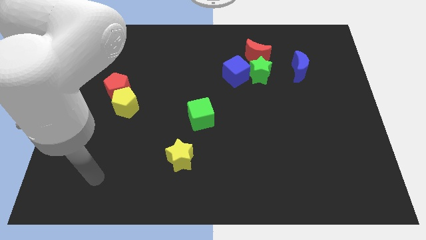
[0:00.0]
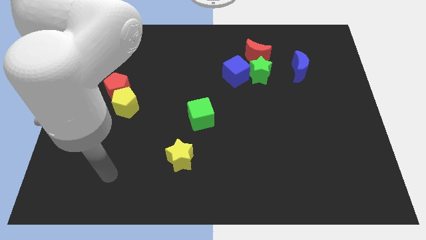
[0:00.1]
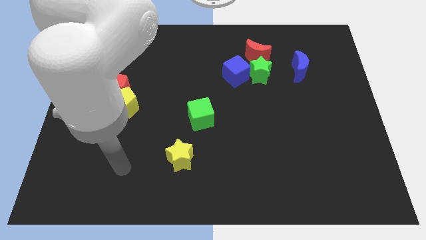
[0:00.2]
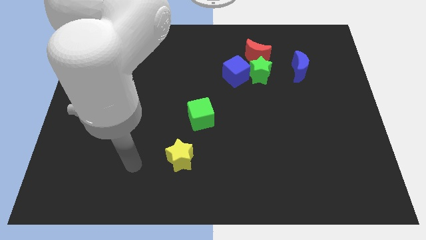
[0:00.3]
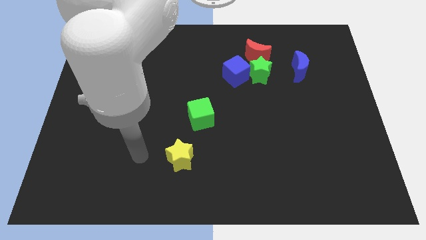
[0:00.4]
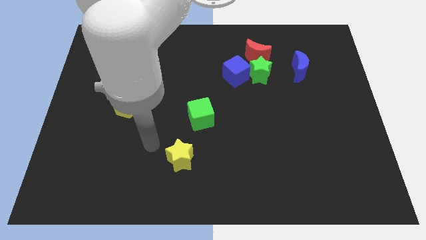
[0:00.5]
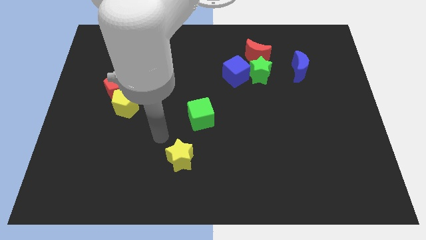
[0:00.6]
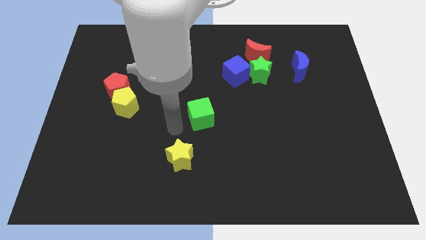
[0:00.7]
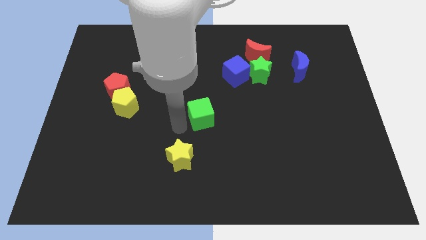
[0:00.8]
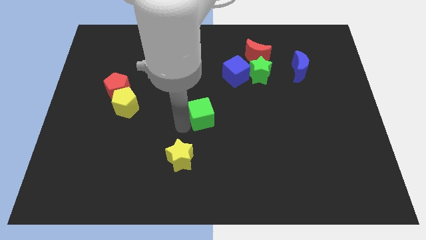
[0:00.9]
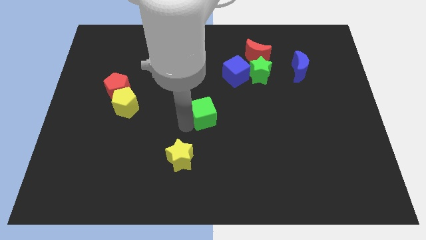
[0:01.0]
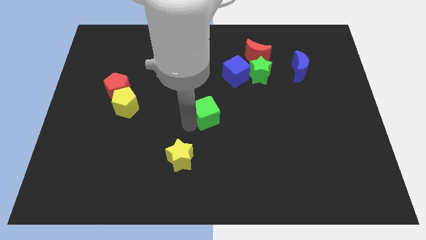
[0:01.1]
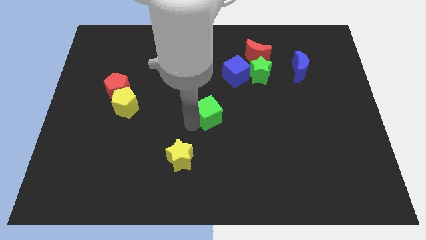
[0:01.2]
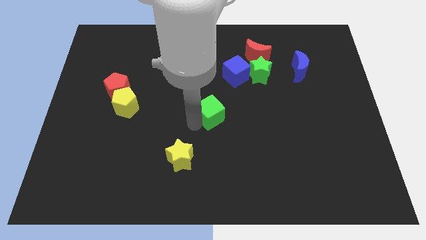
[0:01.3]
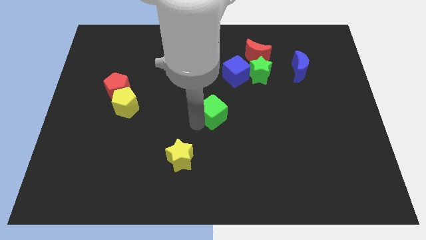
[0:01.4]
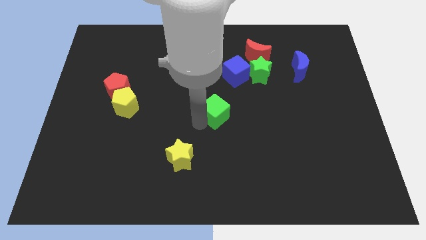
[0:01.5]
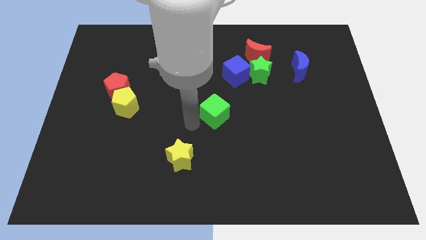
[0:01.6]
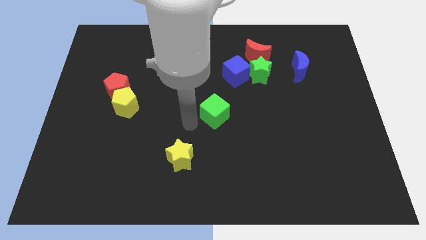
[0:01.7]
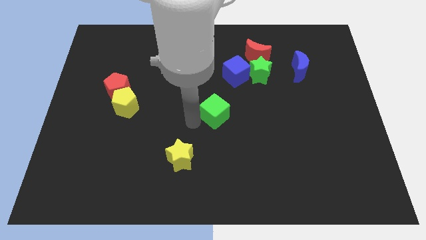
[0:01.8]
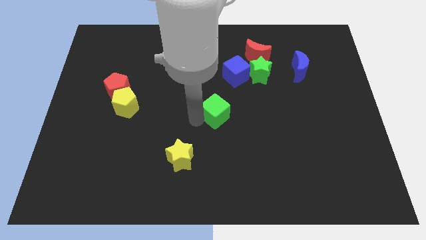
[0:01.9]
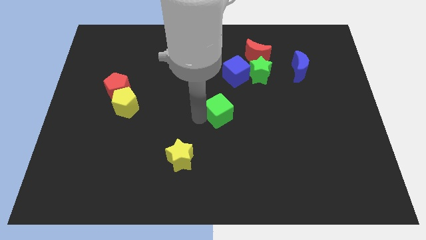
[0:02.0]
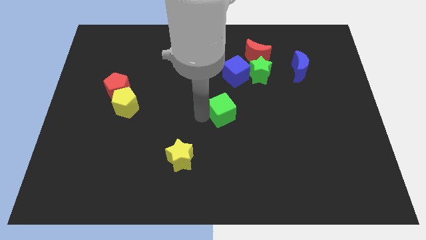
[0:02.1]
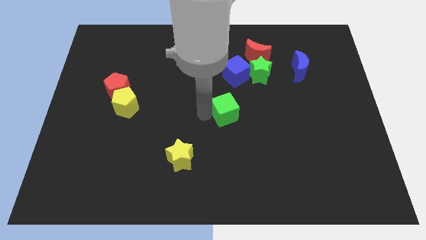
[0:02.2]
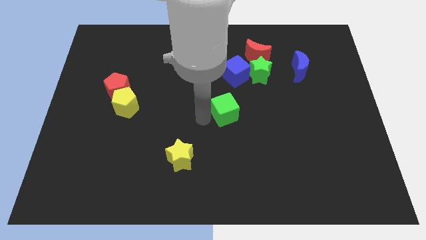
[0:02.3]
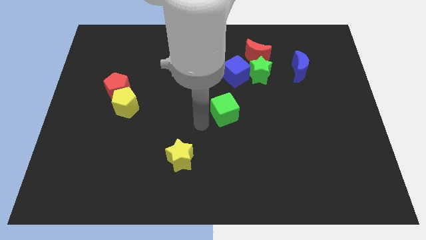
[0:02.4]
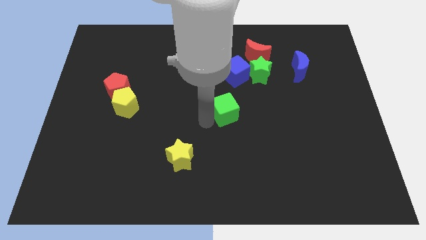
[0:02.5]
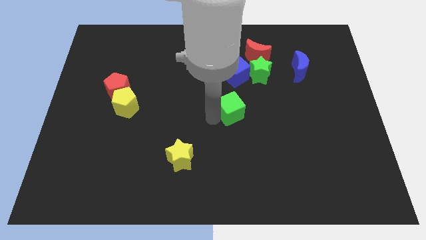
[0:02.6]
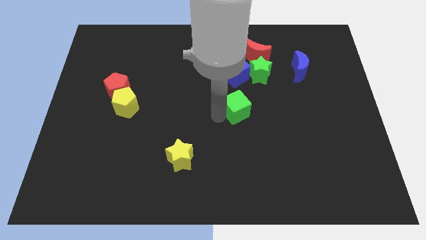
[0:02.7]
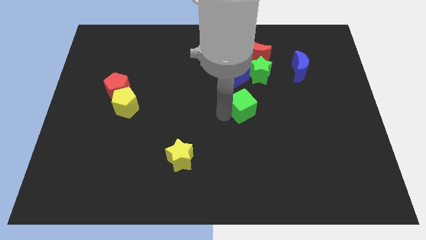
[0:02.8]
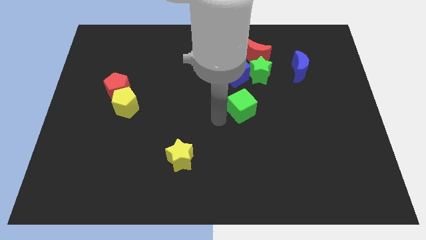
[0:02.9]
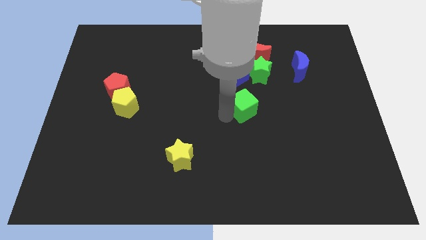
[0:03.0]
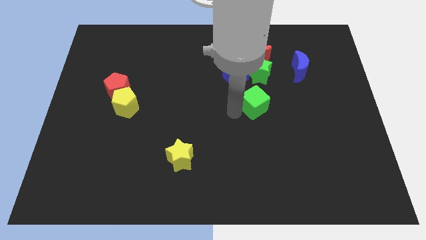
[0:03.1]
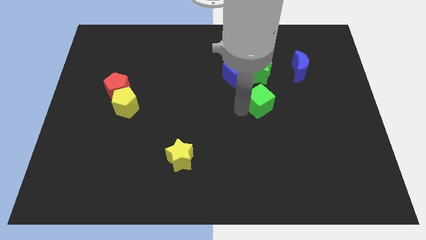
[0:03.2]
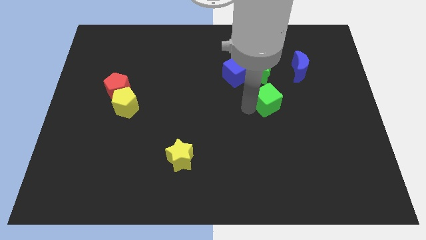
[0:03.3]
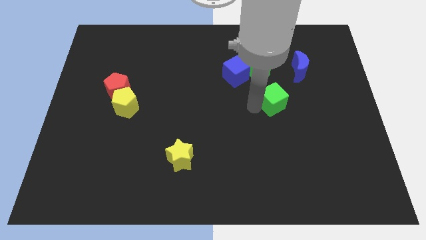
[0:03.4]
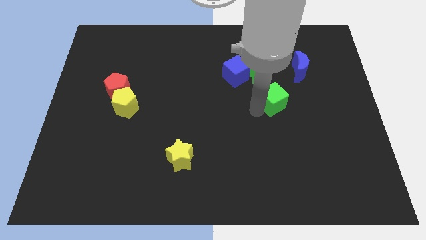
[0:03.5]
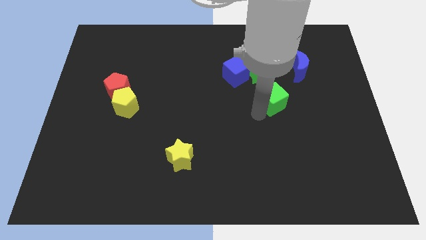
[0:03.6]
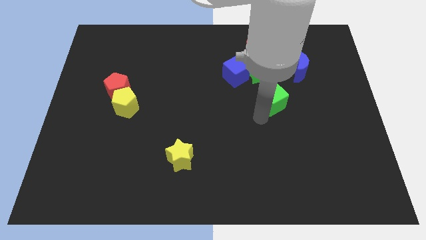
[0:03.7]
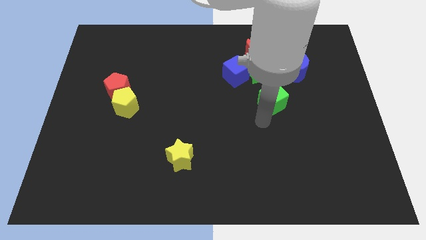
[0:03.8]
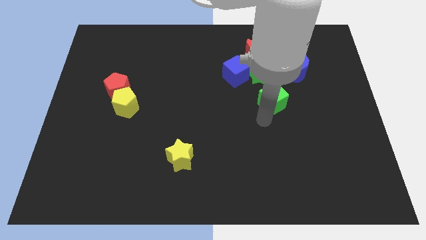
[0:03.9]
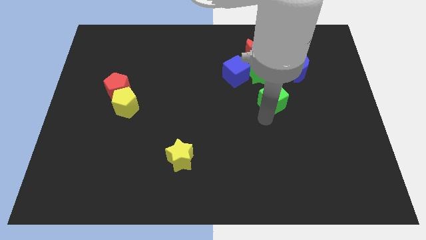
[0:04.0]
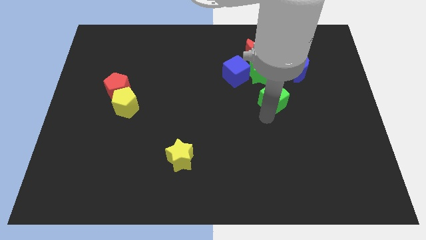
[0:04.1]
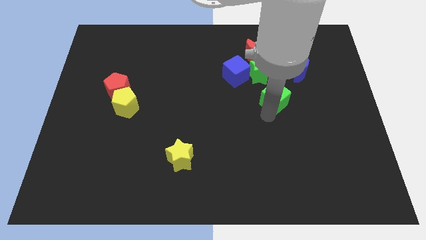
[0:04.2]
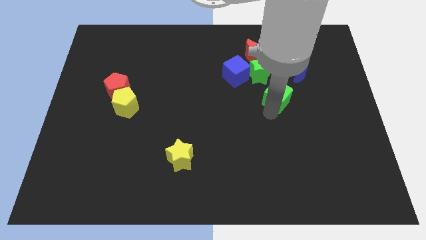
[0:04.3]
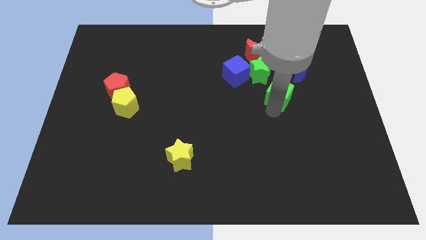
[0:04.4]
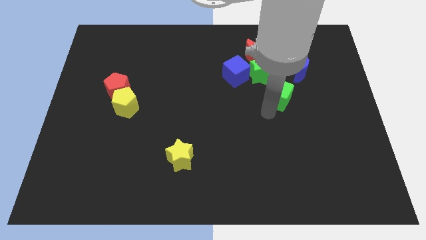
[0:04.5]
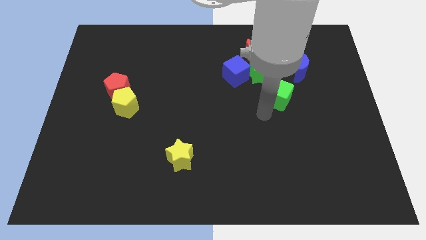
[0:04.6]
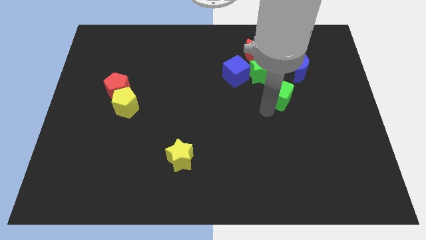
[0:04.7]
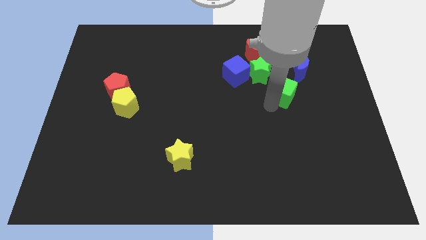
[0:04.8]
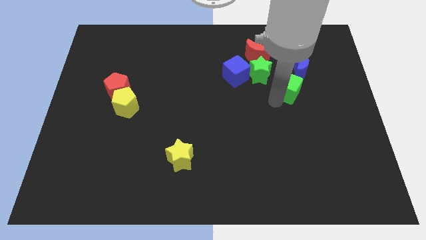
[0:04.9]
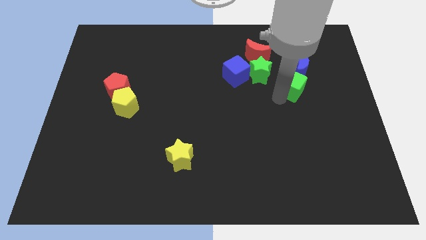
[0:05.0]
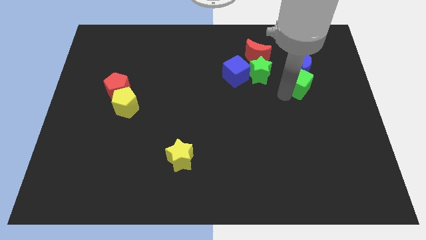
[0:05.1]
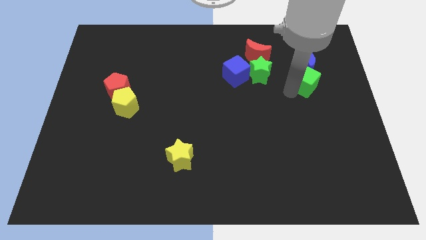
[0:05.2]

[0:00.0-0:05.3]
put the green cube towards the blue moon

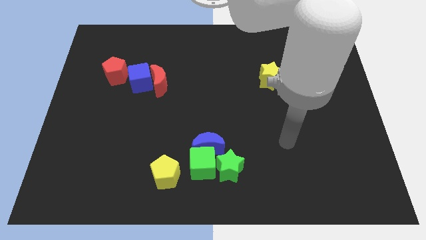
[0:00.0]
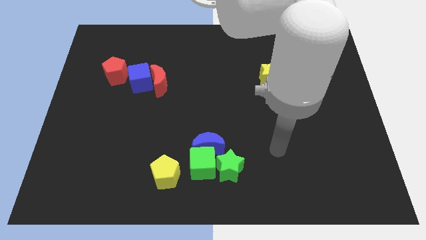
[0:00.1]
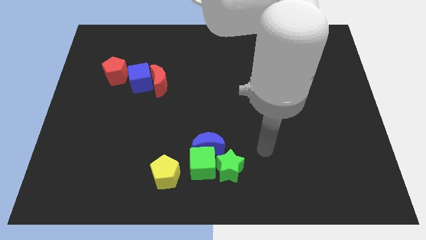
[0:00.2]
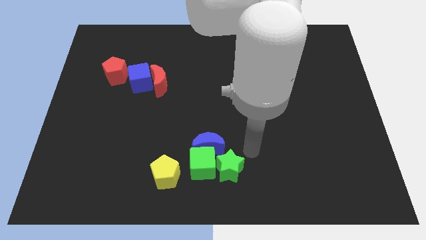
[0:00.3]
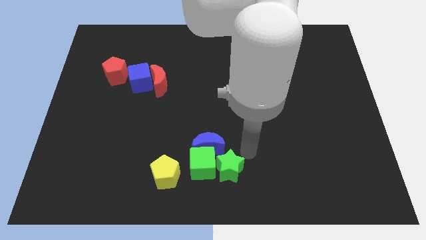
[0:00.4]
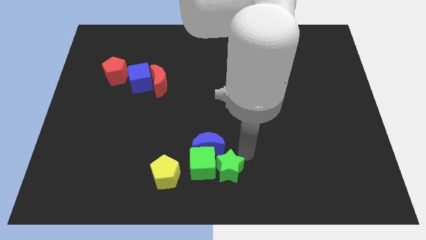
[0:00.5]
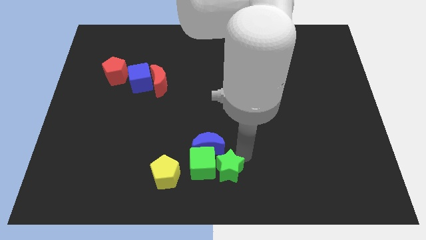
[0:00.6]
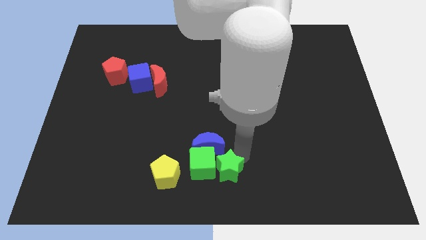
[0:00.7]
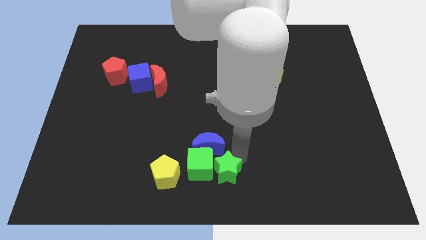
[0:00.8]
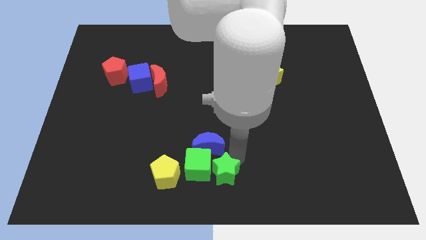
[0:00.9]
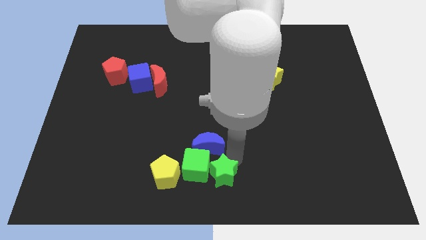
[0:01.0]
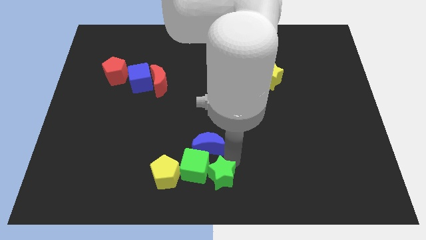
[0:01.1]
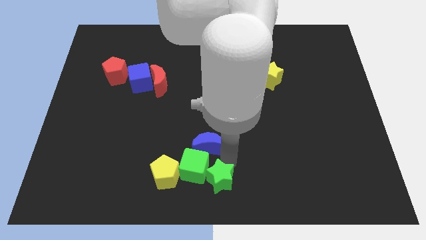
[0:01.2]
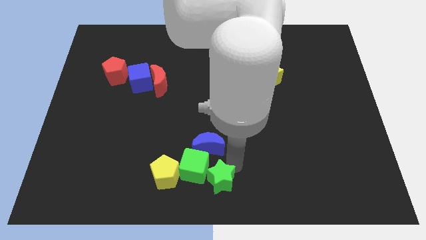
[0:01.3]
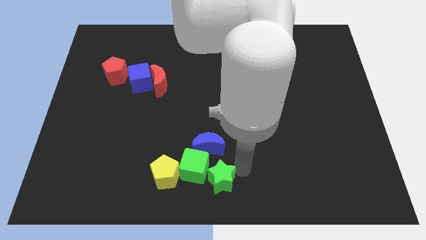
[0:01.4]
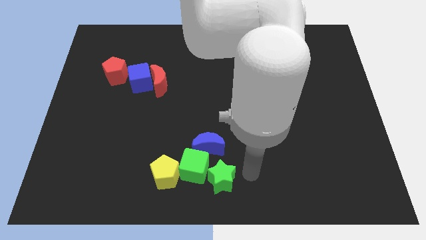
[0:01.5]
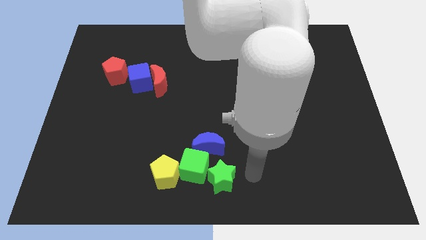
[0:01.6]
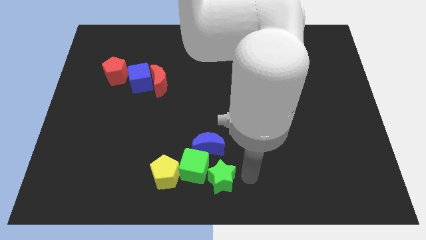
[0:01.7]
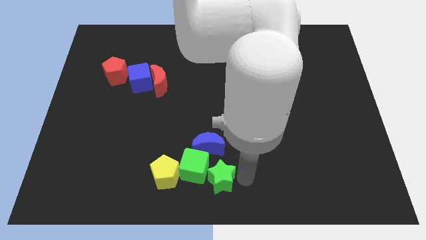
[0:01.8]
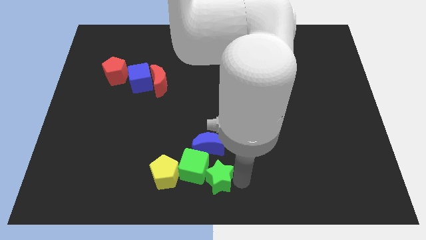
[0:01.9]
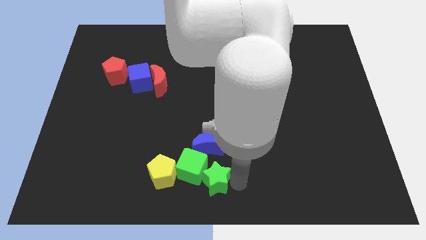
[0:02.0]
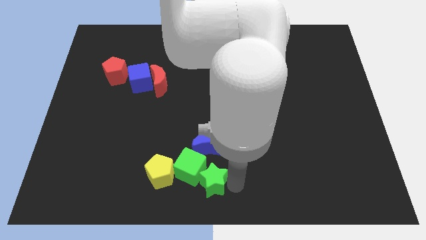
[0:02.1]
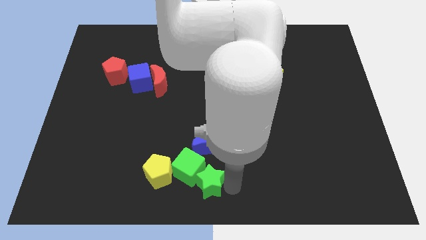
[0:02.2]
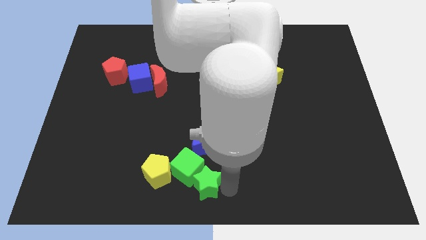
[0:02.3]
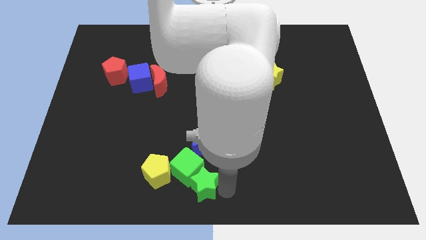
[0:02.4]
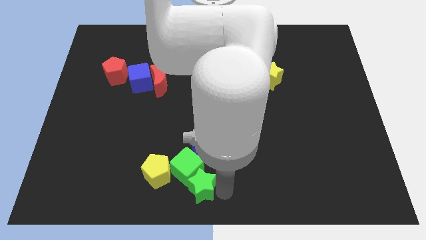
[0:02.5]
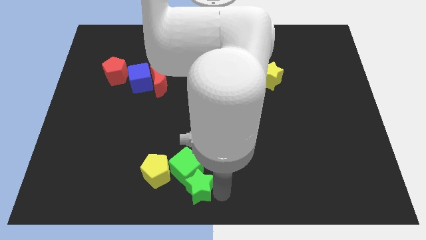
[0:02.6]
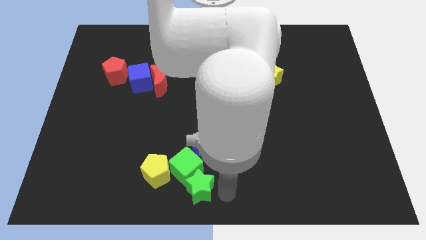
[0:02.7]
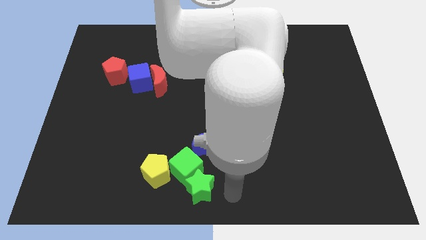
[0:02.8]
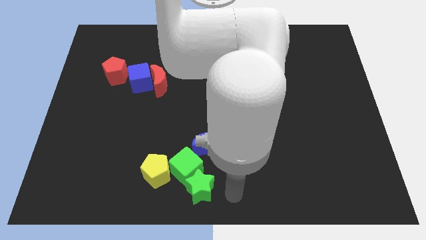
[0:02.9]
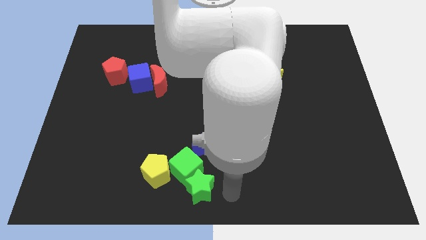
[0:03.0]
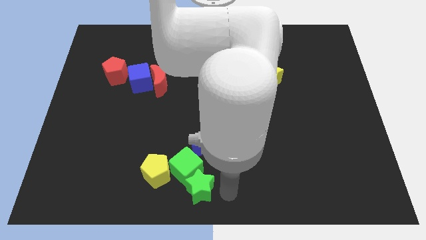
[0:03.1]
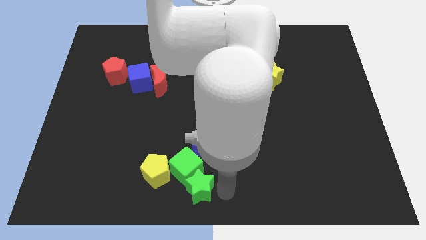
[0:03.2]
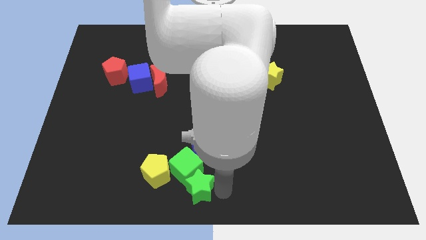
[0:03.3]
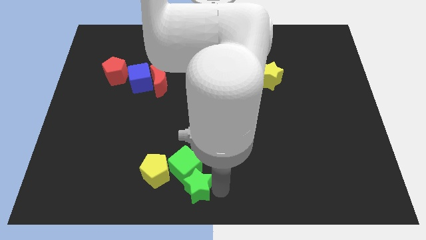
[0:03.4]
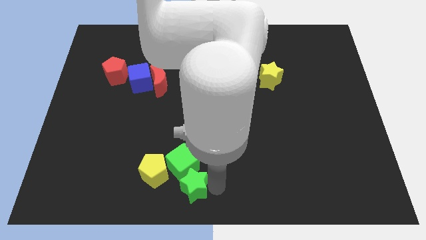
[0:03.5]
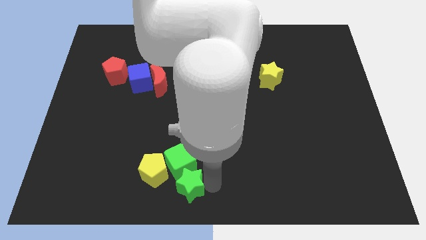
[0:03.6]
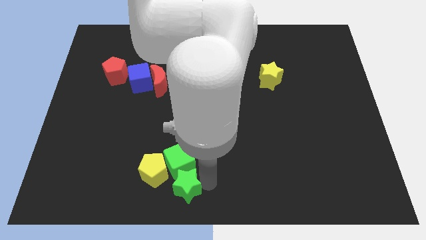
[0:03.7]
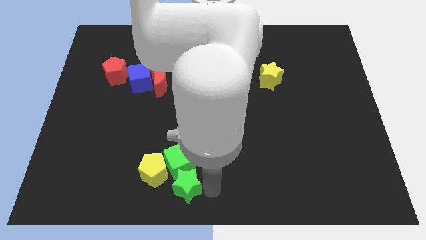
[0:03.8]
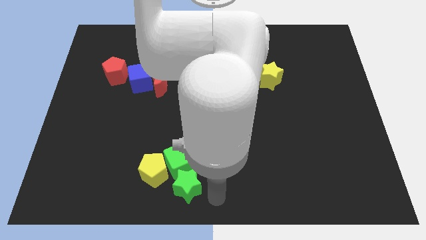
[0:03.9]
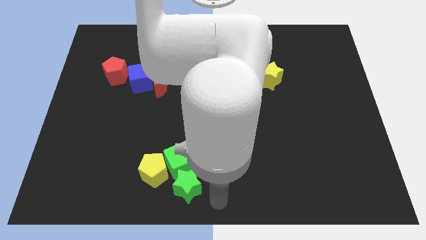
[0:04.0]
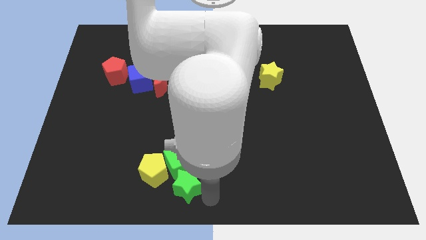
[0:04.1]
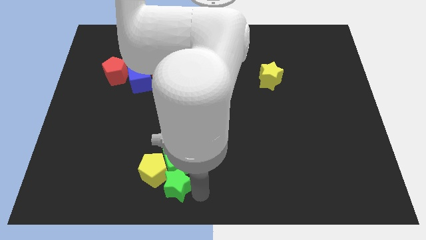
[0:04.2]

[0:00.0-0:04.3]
slide the green star next to the yellow pentagon
